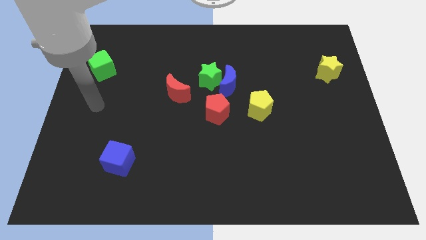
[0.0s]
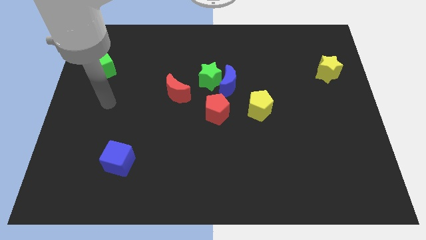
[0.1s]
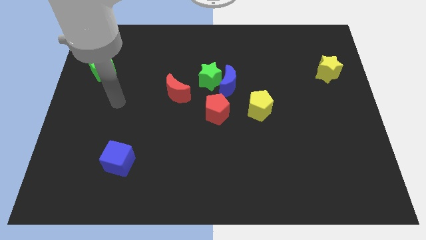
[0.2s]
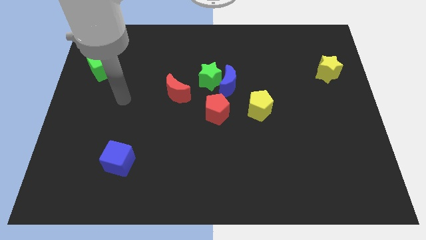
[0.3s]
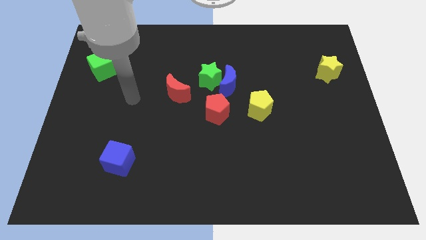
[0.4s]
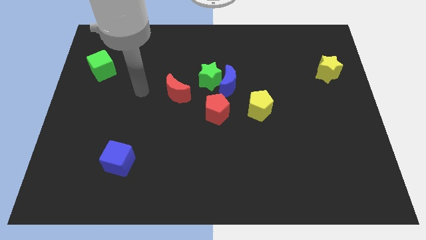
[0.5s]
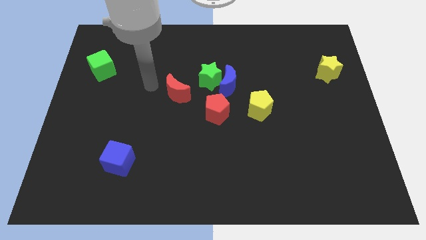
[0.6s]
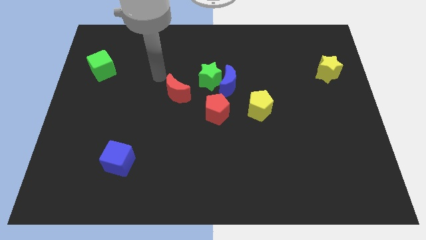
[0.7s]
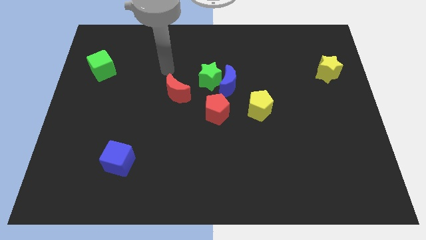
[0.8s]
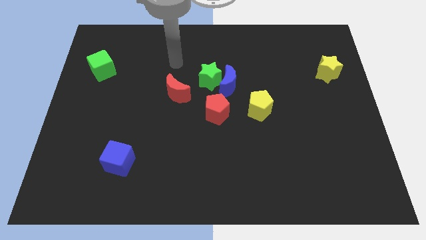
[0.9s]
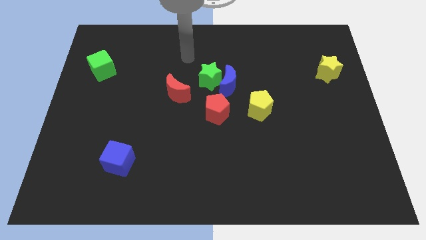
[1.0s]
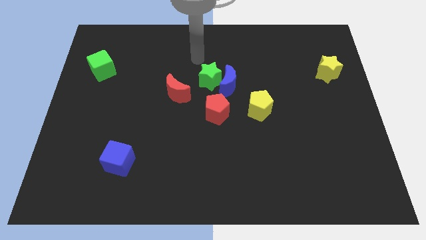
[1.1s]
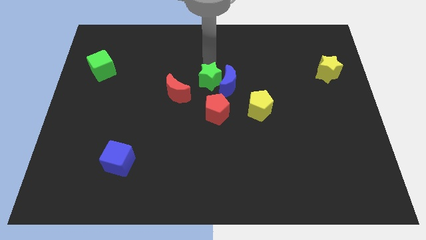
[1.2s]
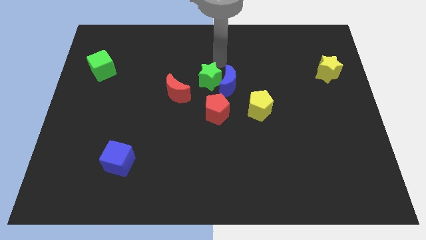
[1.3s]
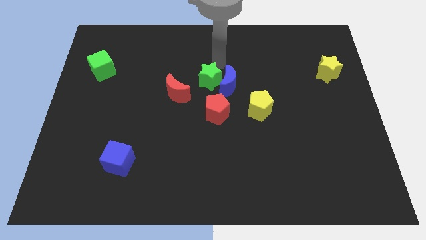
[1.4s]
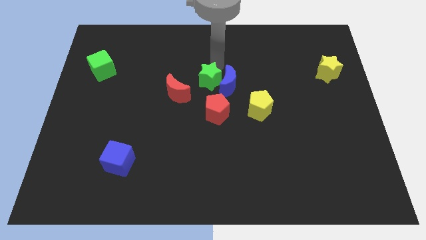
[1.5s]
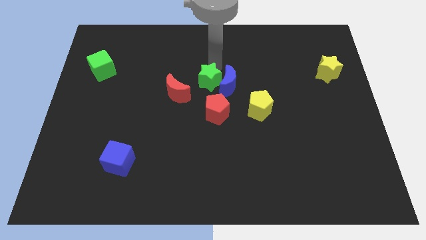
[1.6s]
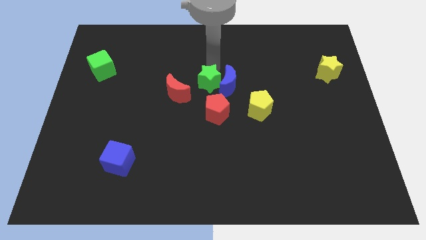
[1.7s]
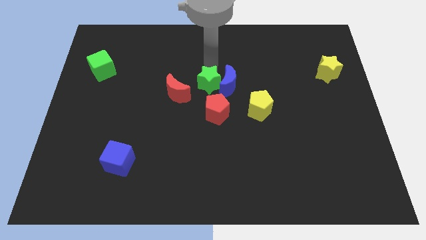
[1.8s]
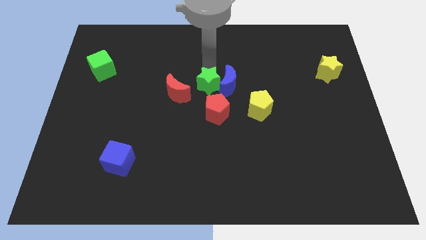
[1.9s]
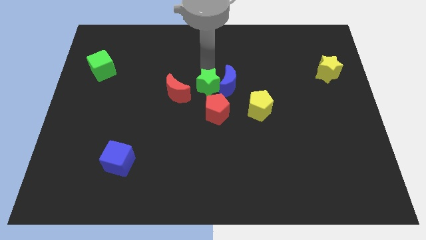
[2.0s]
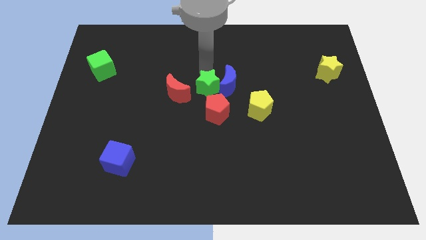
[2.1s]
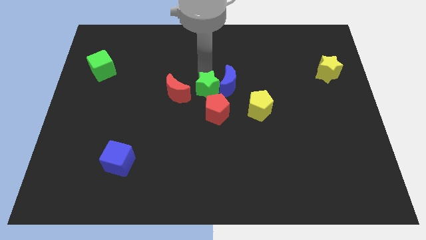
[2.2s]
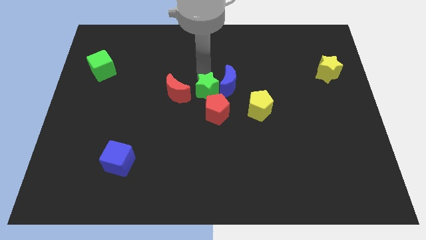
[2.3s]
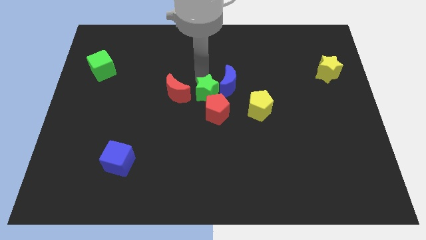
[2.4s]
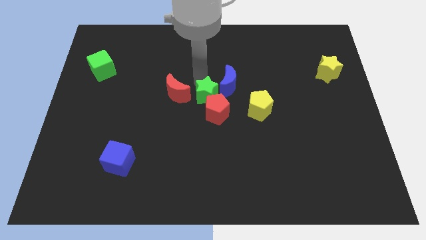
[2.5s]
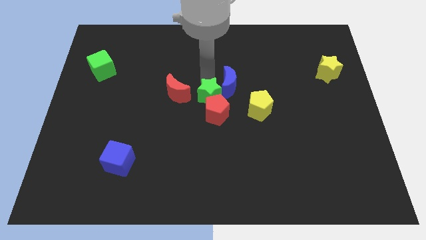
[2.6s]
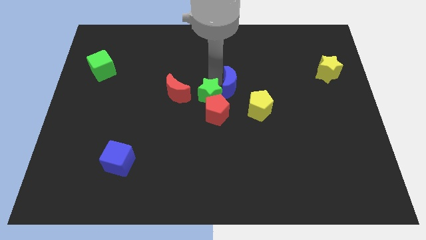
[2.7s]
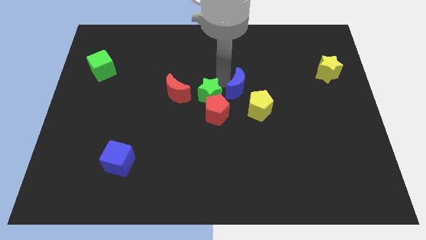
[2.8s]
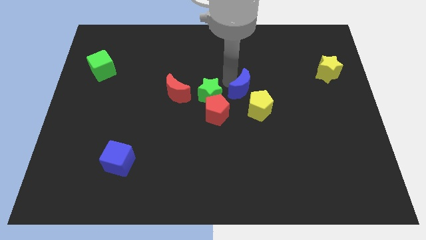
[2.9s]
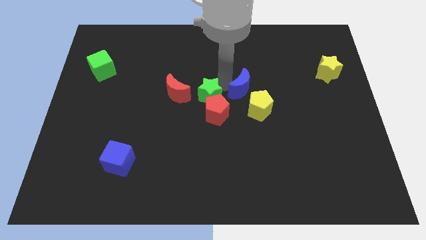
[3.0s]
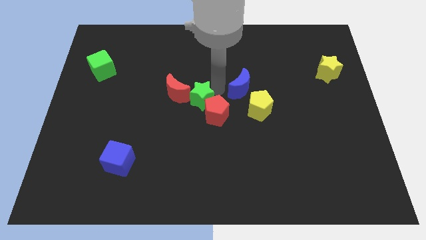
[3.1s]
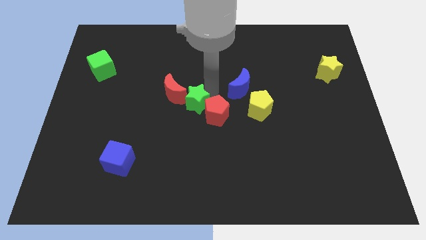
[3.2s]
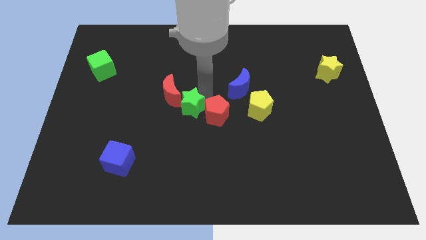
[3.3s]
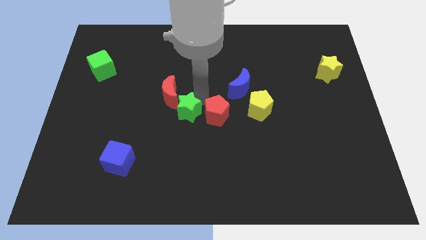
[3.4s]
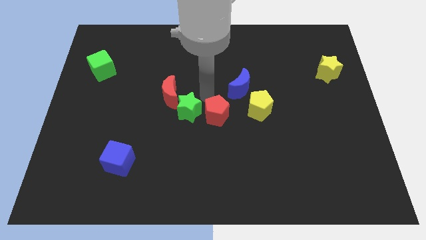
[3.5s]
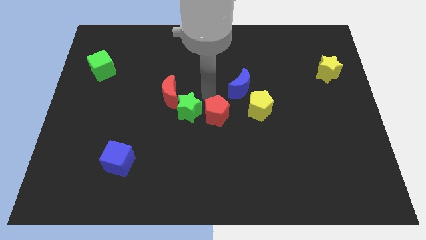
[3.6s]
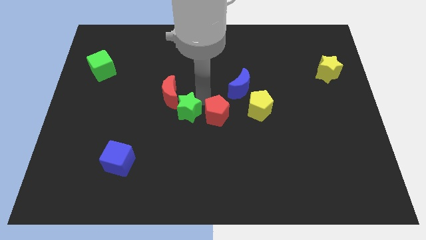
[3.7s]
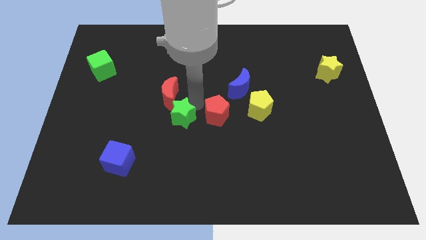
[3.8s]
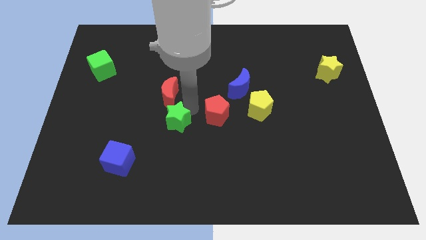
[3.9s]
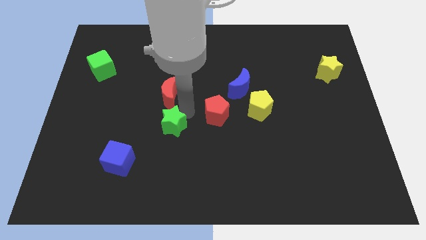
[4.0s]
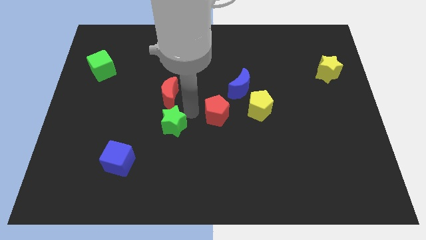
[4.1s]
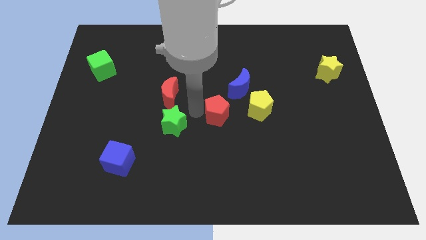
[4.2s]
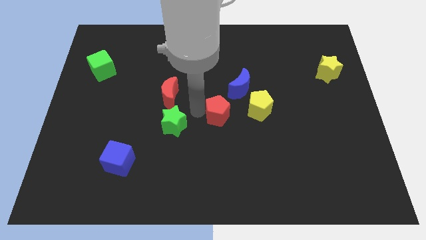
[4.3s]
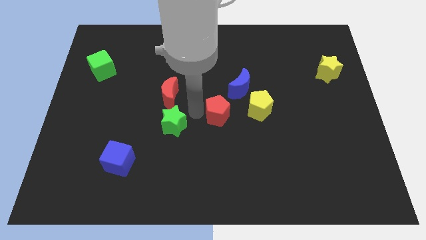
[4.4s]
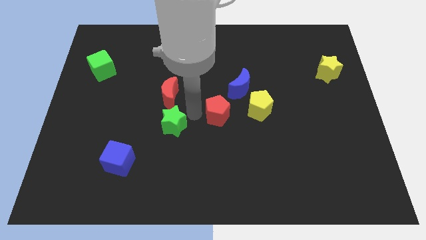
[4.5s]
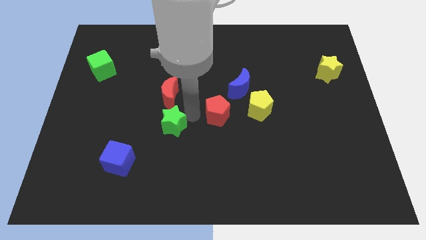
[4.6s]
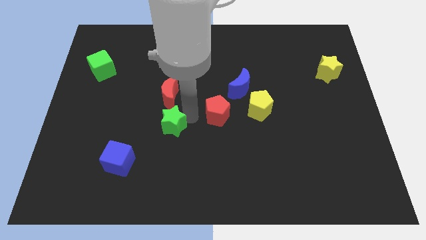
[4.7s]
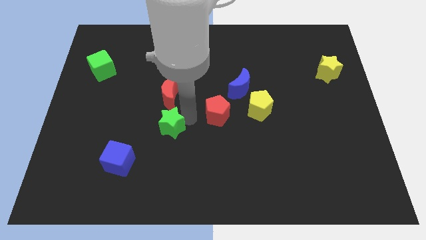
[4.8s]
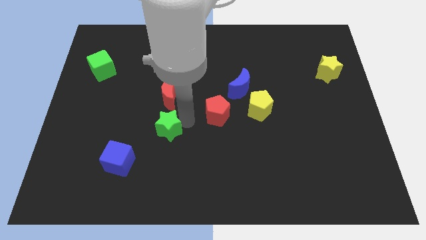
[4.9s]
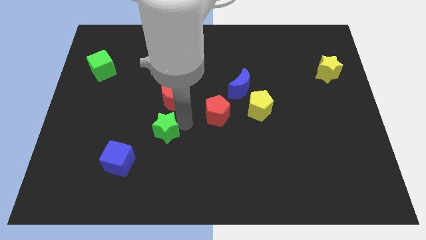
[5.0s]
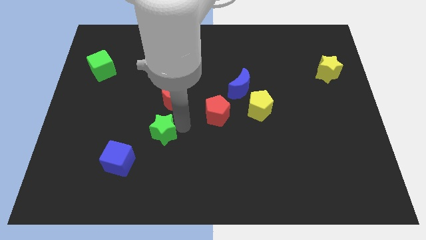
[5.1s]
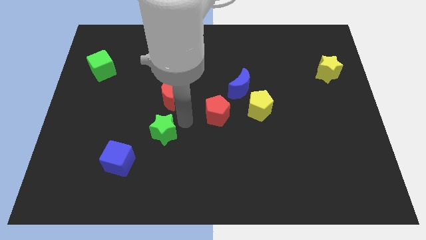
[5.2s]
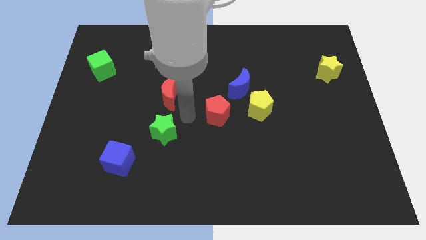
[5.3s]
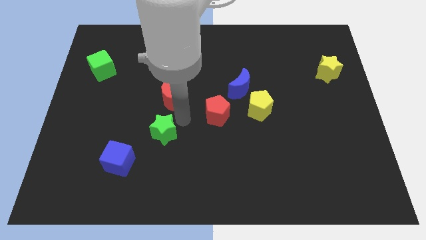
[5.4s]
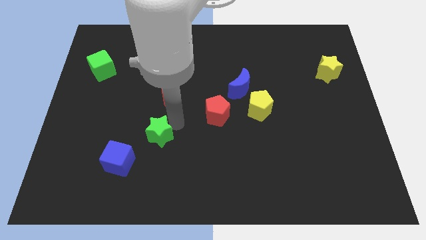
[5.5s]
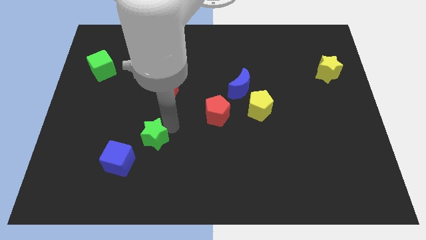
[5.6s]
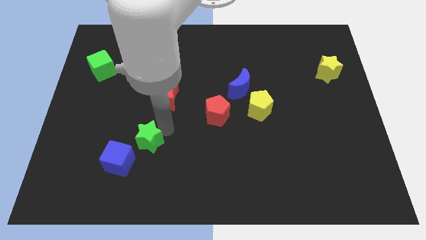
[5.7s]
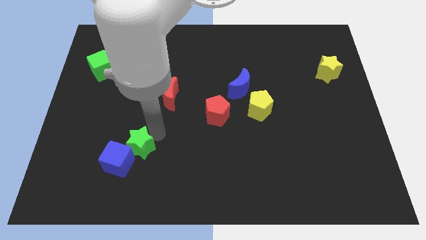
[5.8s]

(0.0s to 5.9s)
move the green star to the blue cube

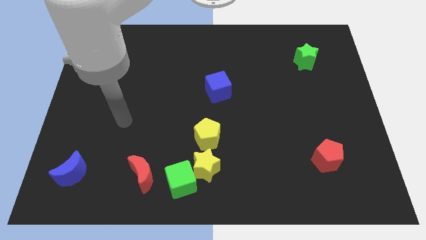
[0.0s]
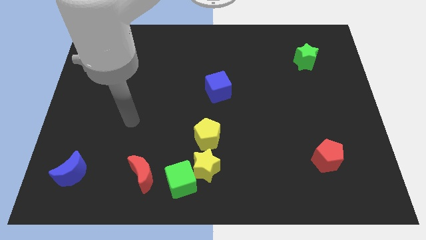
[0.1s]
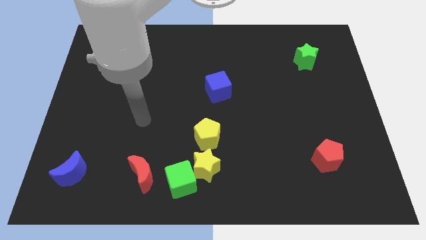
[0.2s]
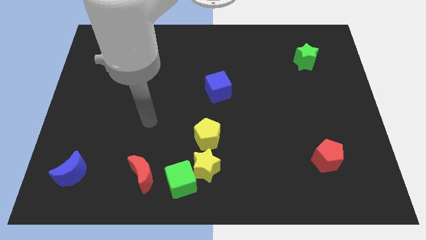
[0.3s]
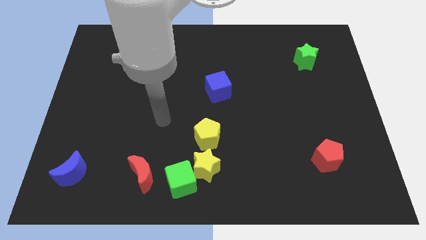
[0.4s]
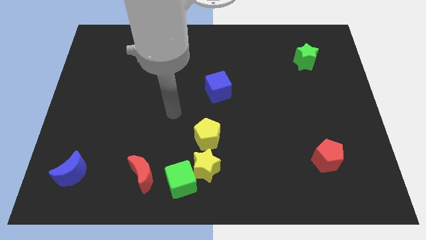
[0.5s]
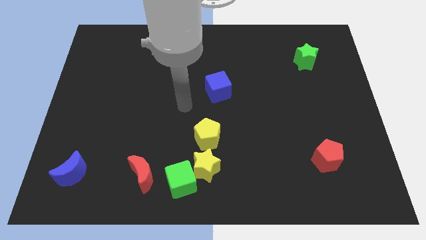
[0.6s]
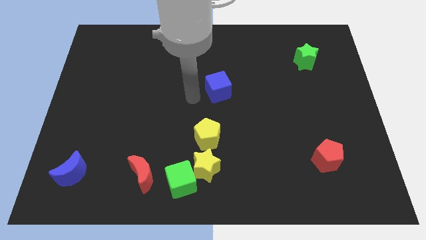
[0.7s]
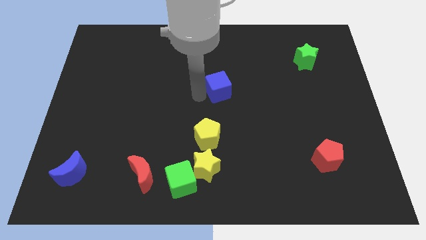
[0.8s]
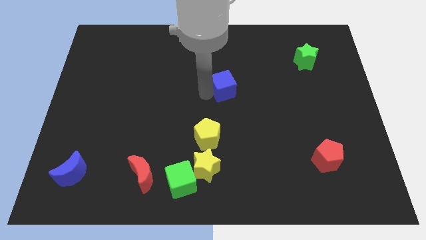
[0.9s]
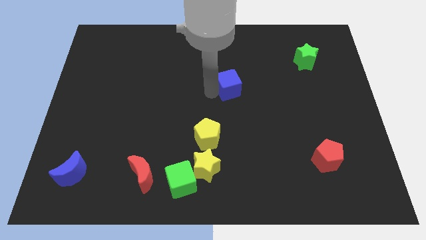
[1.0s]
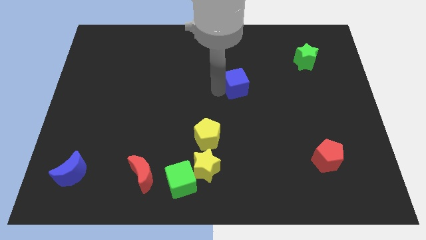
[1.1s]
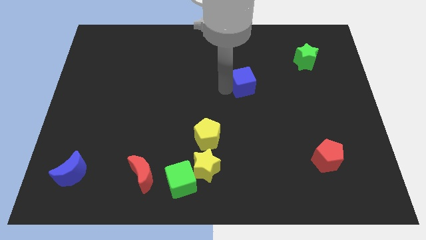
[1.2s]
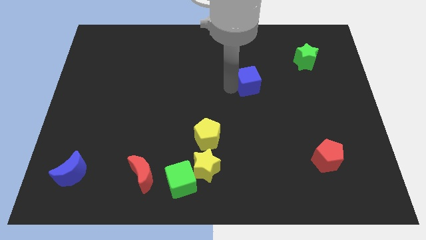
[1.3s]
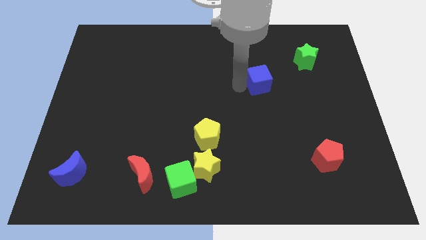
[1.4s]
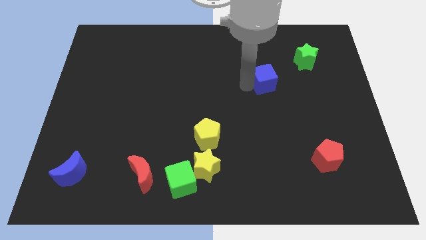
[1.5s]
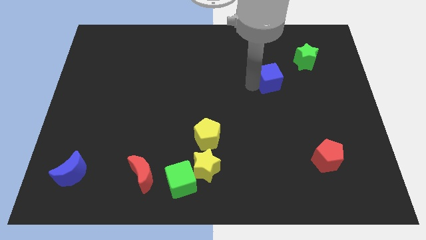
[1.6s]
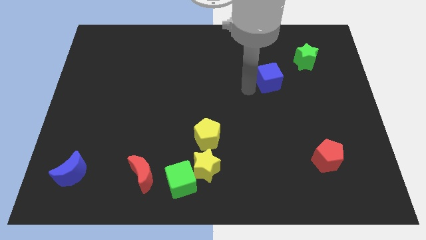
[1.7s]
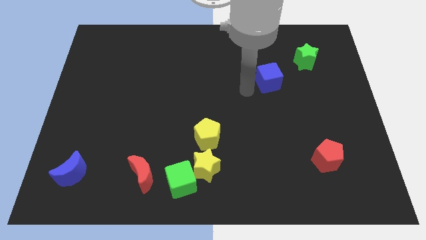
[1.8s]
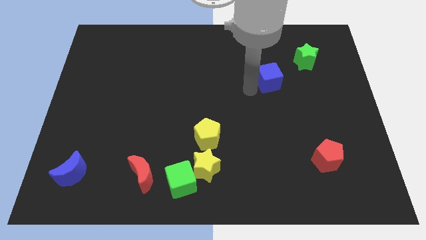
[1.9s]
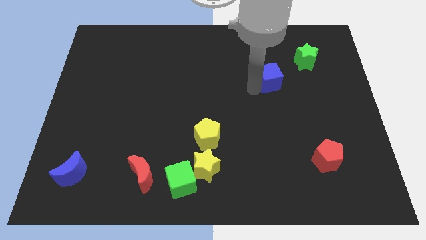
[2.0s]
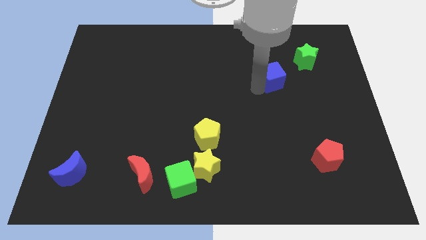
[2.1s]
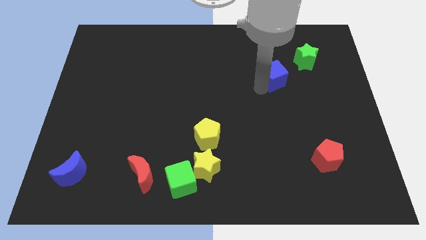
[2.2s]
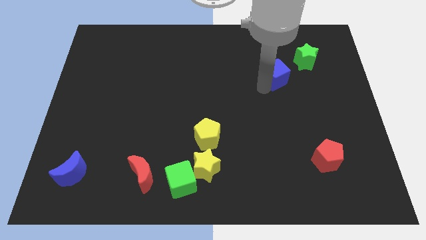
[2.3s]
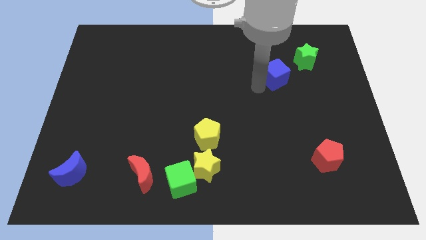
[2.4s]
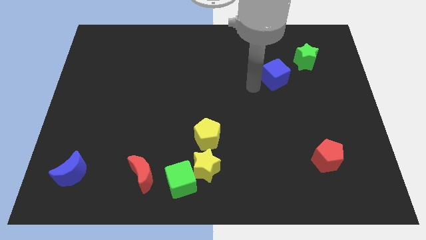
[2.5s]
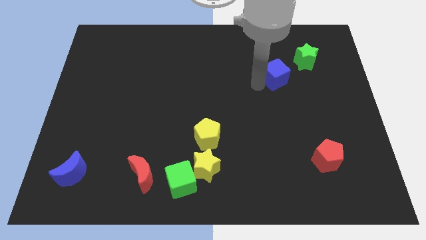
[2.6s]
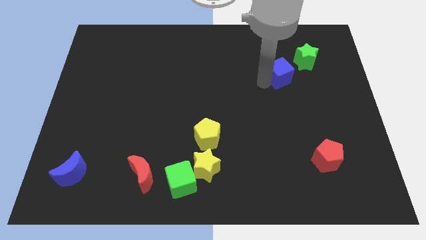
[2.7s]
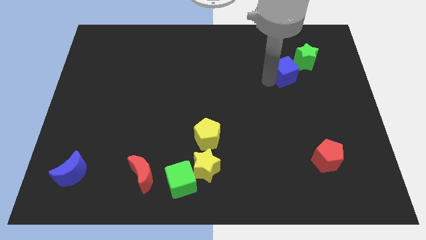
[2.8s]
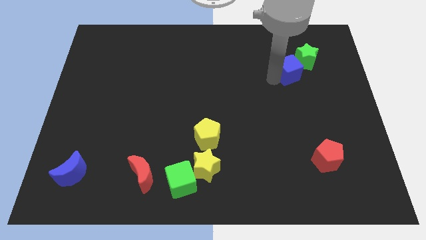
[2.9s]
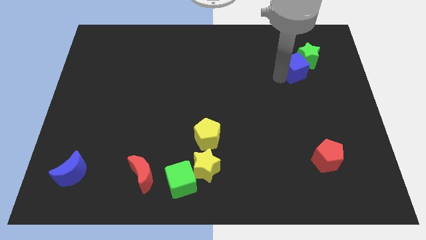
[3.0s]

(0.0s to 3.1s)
put the blue cube close to the green star
